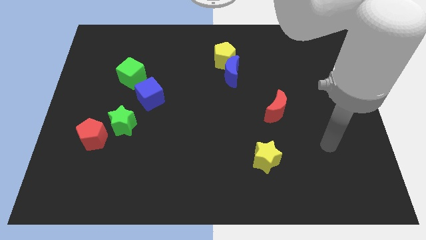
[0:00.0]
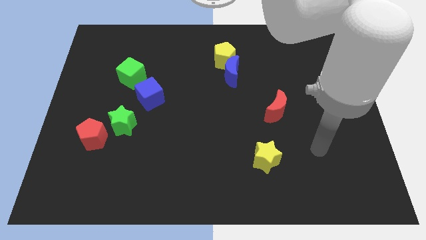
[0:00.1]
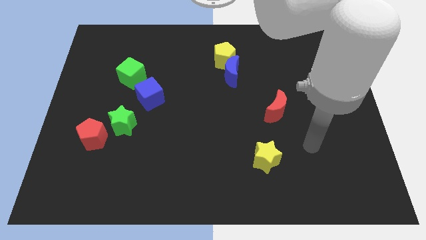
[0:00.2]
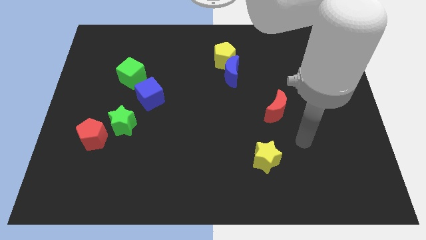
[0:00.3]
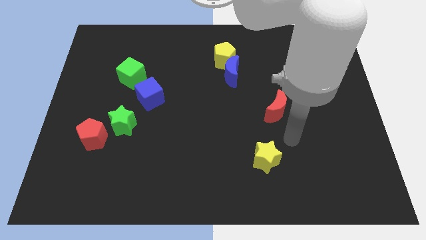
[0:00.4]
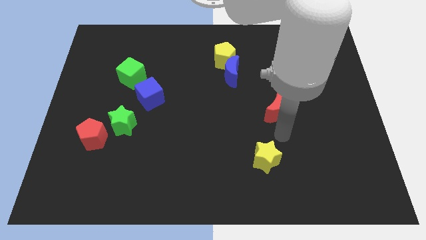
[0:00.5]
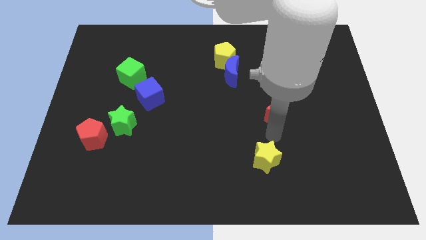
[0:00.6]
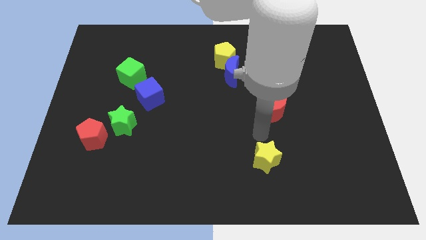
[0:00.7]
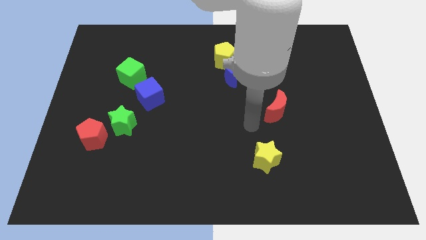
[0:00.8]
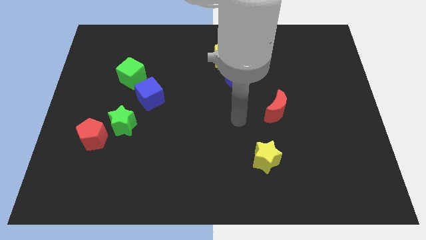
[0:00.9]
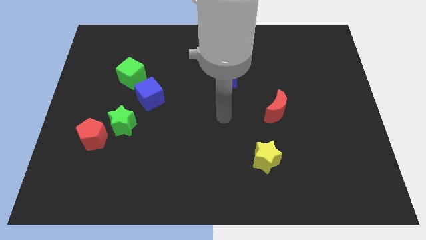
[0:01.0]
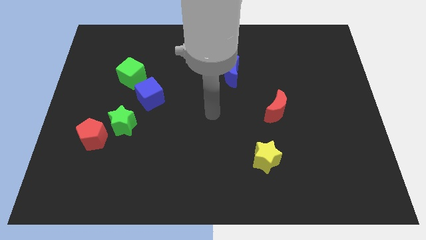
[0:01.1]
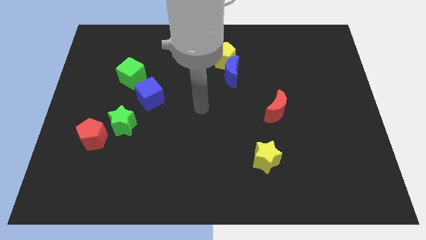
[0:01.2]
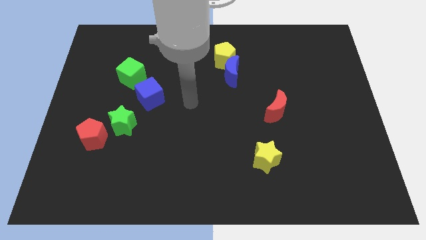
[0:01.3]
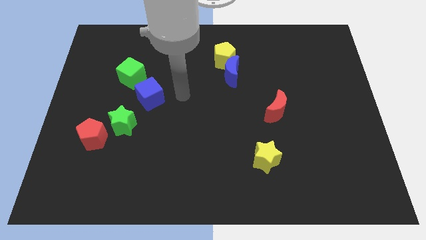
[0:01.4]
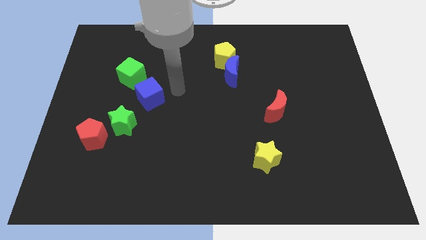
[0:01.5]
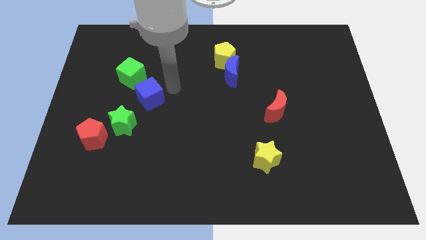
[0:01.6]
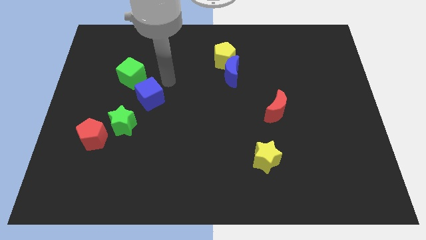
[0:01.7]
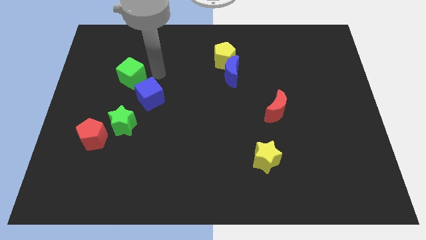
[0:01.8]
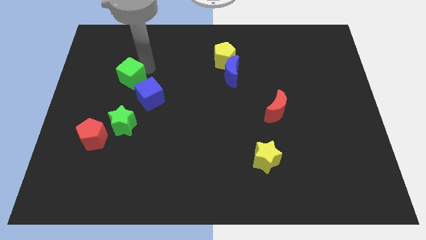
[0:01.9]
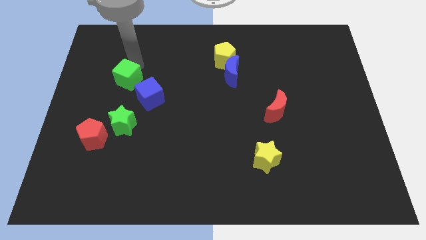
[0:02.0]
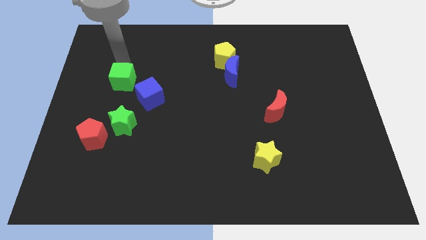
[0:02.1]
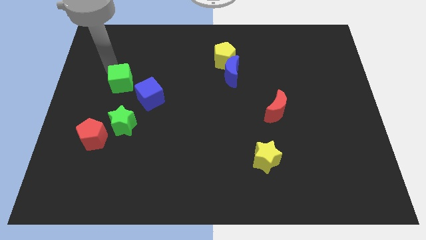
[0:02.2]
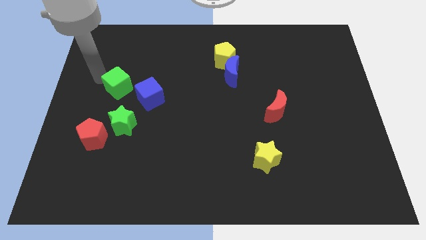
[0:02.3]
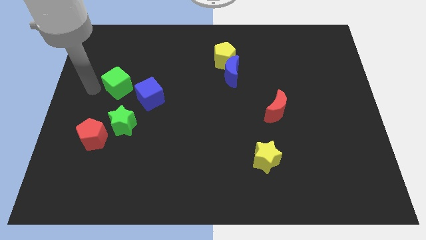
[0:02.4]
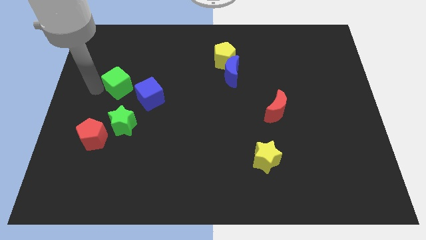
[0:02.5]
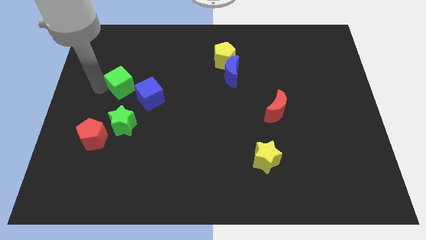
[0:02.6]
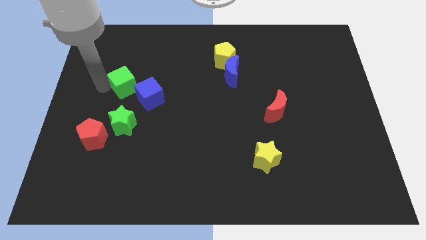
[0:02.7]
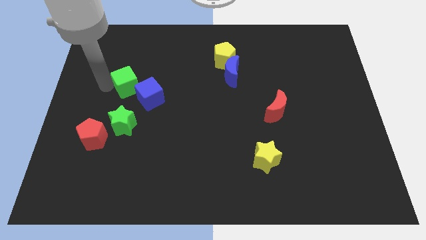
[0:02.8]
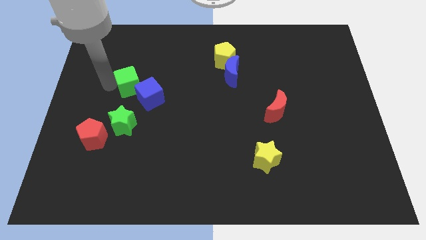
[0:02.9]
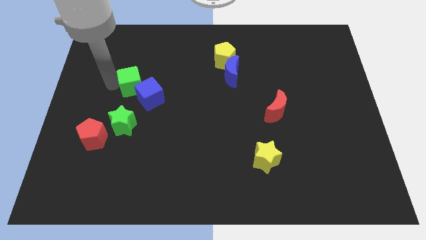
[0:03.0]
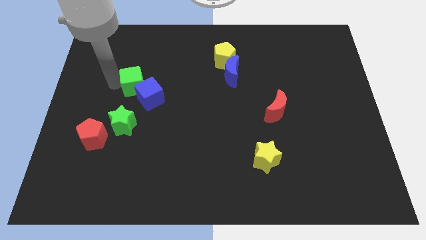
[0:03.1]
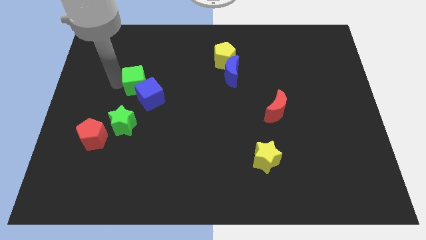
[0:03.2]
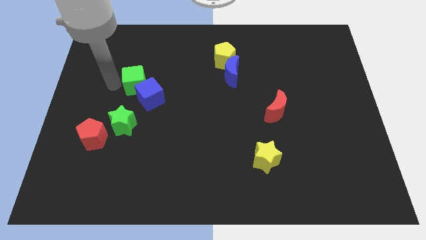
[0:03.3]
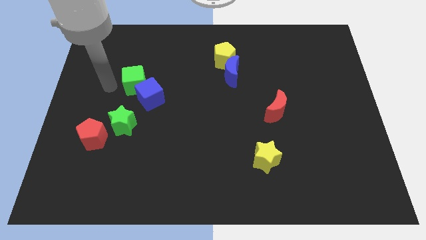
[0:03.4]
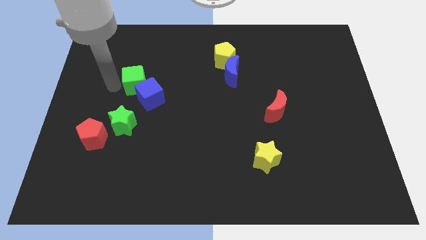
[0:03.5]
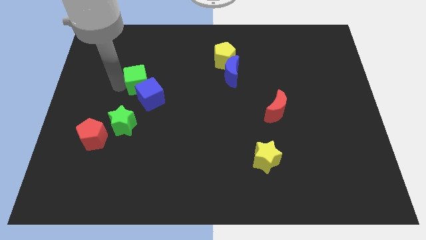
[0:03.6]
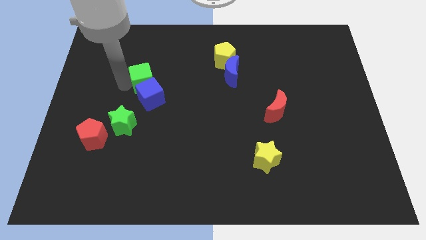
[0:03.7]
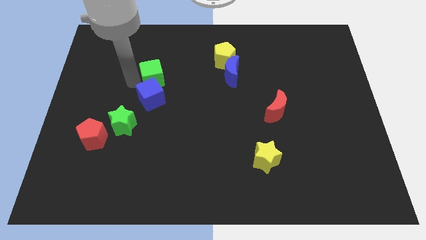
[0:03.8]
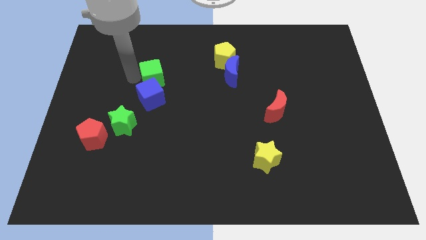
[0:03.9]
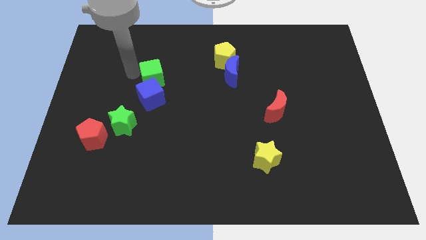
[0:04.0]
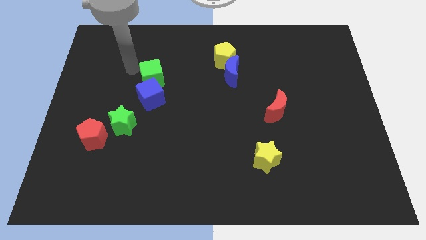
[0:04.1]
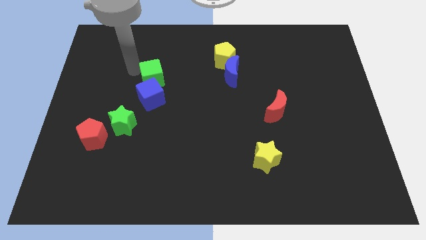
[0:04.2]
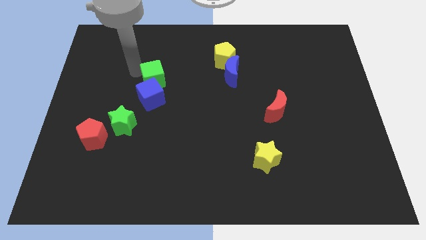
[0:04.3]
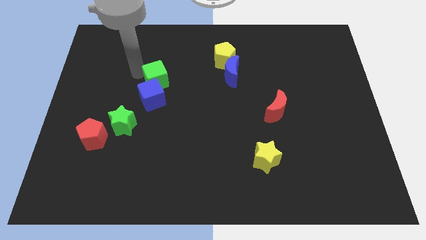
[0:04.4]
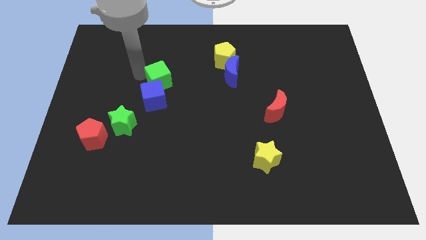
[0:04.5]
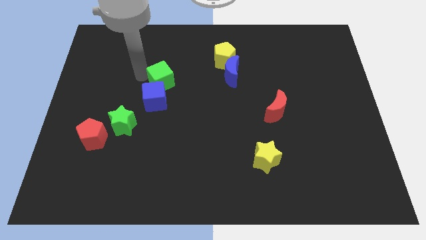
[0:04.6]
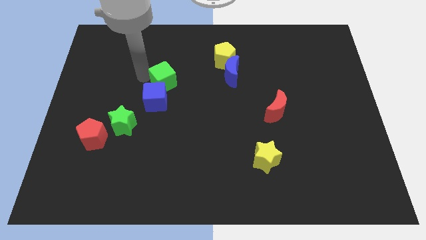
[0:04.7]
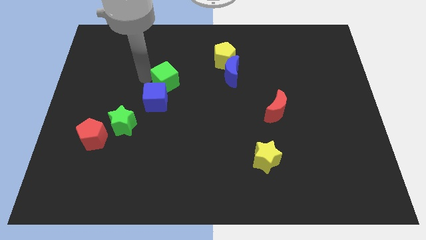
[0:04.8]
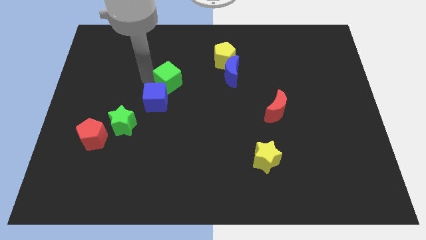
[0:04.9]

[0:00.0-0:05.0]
slide the green cube to the middle of the board

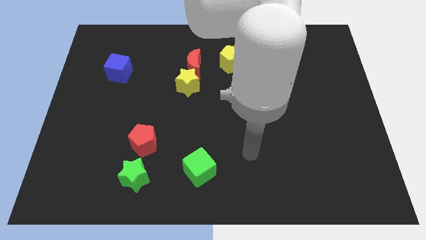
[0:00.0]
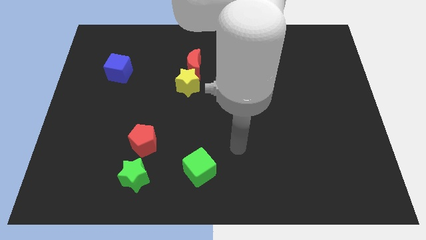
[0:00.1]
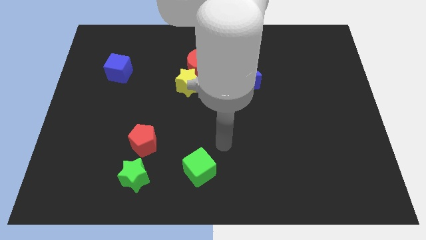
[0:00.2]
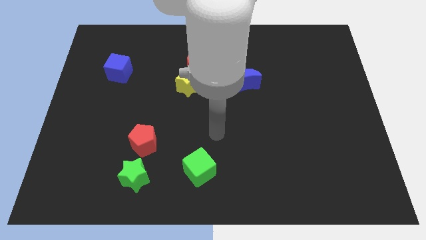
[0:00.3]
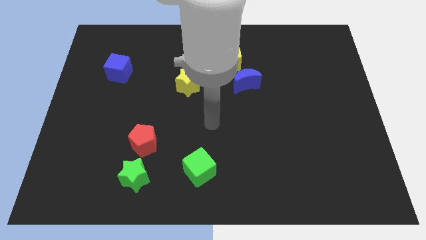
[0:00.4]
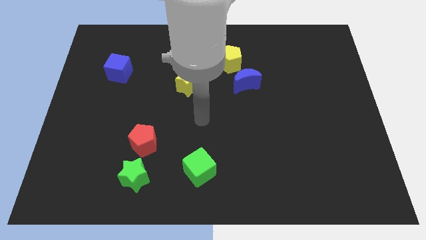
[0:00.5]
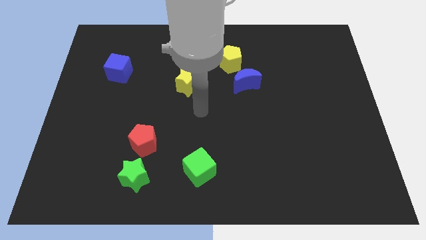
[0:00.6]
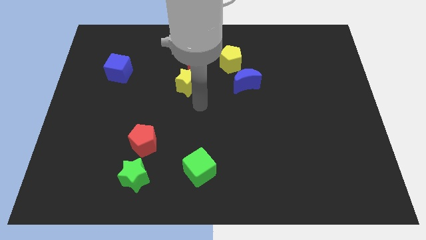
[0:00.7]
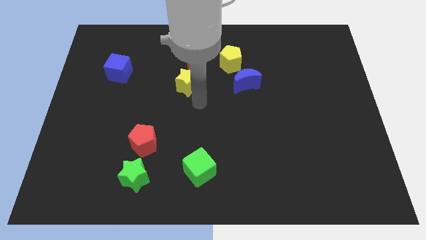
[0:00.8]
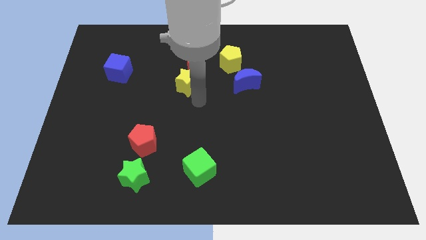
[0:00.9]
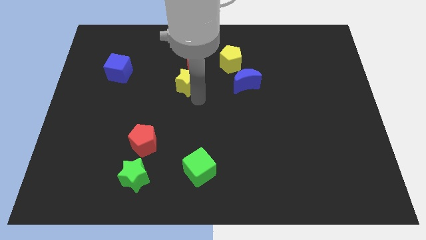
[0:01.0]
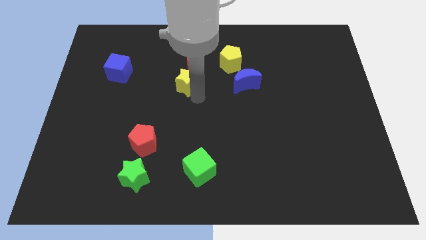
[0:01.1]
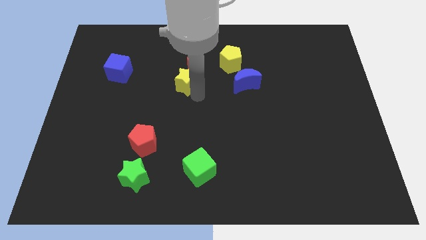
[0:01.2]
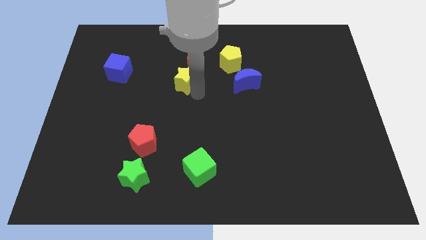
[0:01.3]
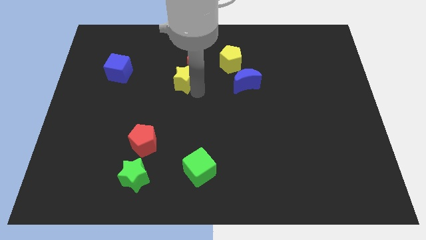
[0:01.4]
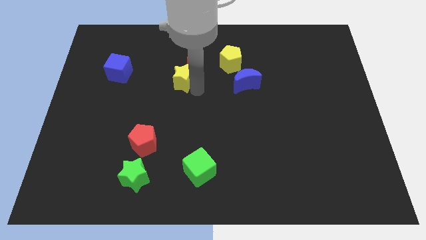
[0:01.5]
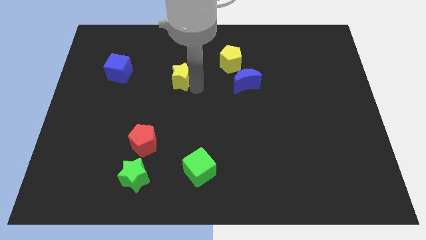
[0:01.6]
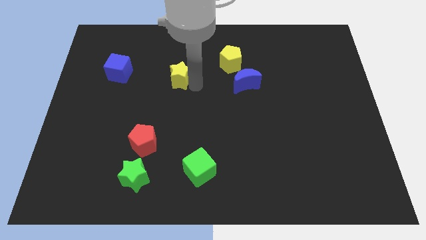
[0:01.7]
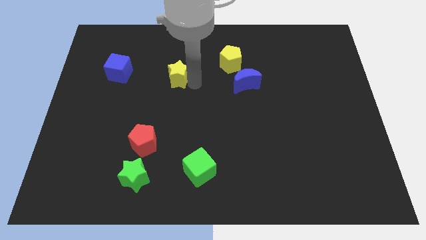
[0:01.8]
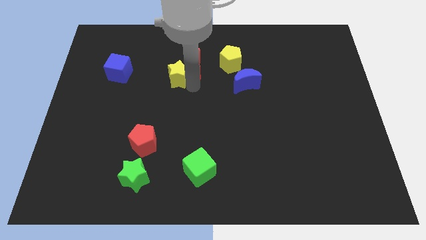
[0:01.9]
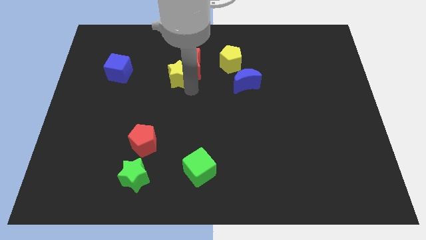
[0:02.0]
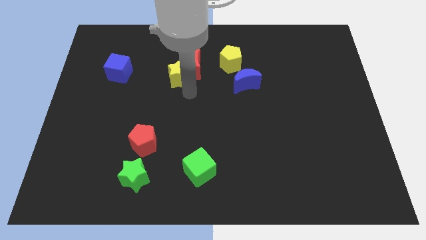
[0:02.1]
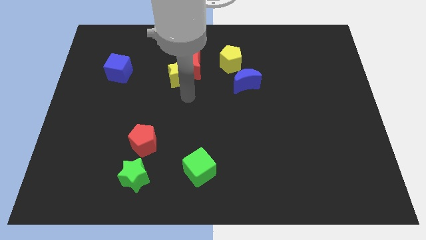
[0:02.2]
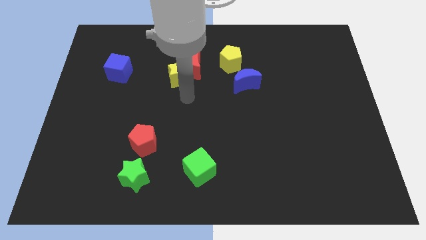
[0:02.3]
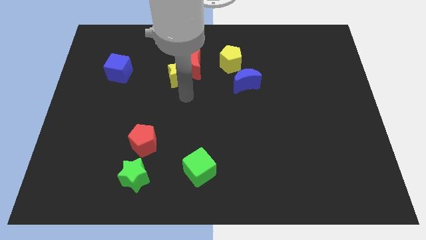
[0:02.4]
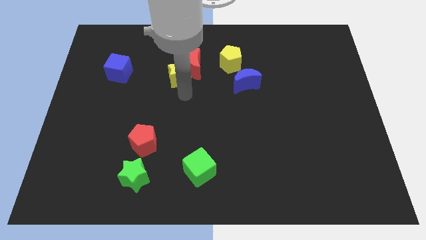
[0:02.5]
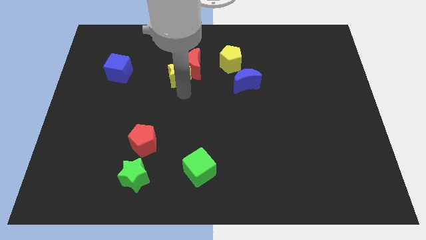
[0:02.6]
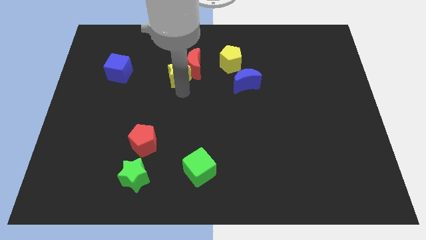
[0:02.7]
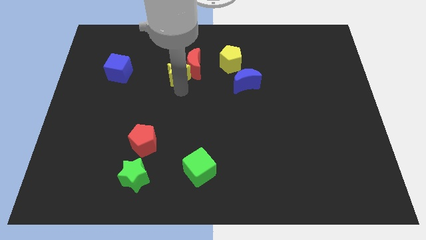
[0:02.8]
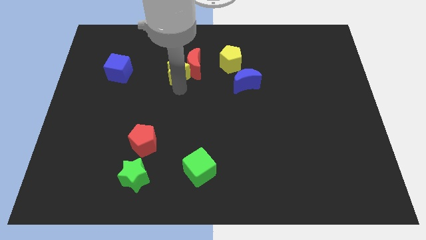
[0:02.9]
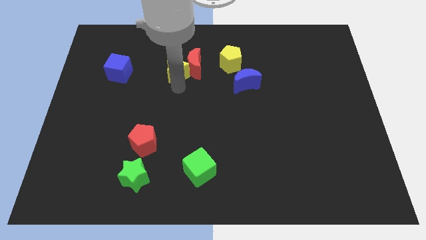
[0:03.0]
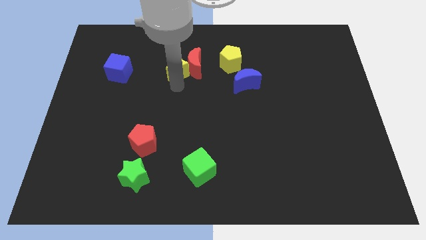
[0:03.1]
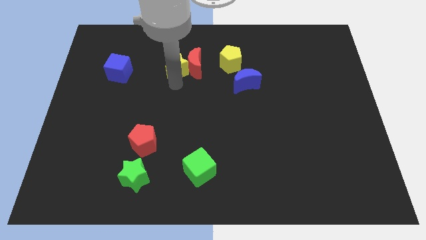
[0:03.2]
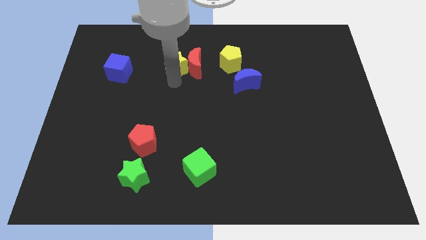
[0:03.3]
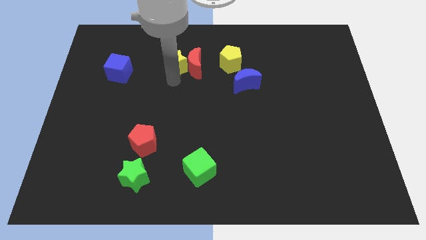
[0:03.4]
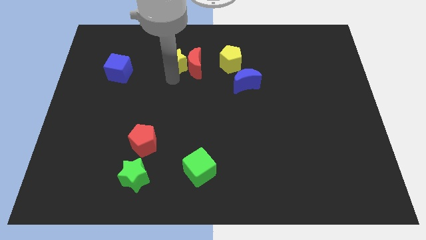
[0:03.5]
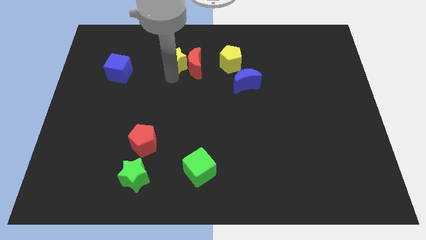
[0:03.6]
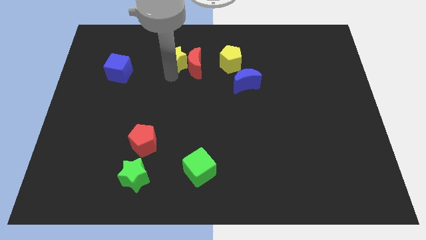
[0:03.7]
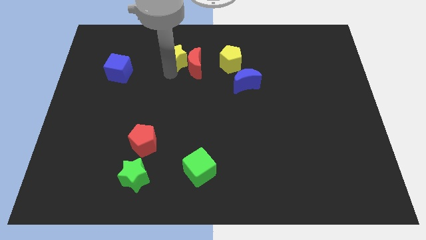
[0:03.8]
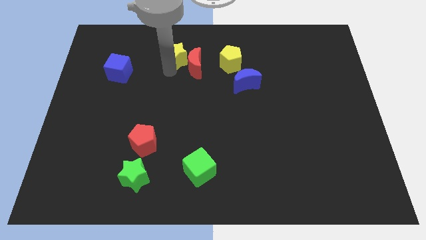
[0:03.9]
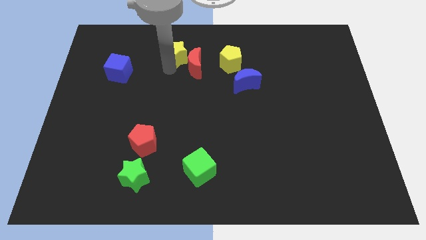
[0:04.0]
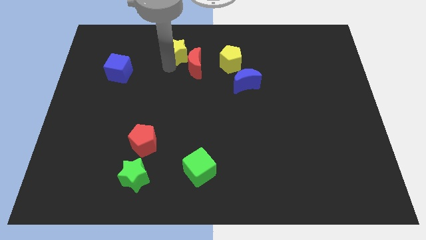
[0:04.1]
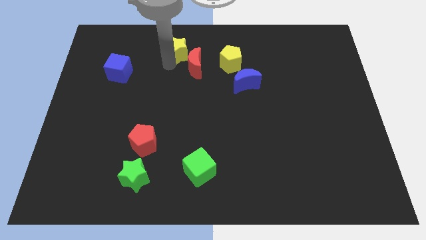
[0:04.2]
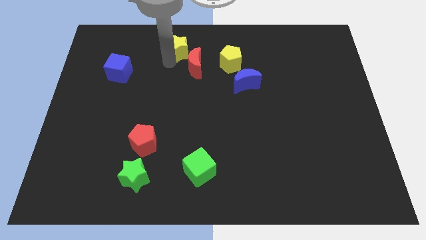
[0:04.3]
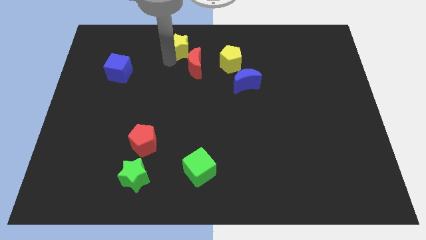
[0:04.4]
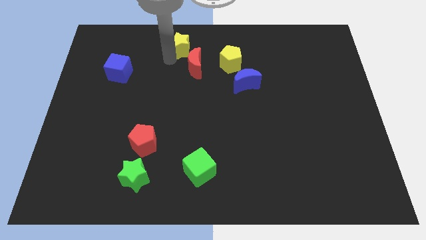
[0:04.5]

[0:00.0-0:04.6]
put the yellow star to the towards your base
